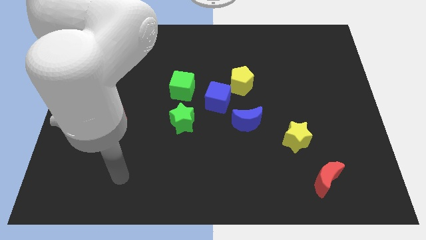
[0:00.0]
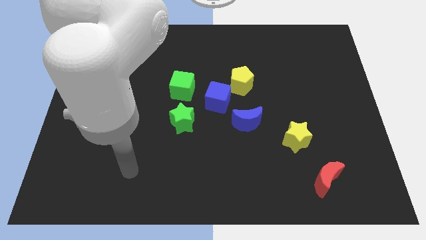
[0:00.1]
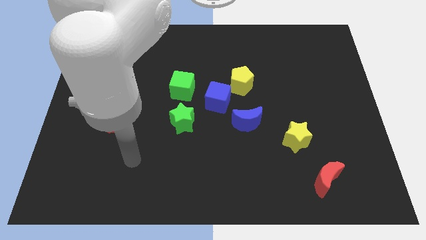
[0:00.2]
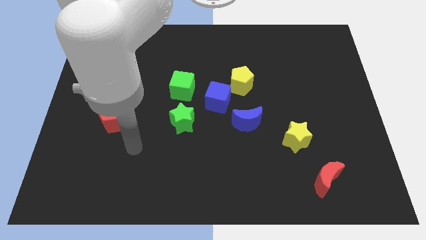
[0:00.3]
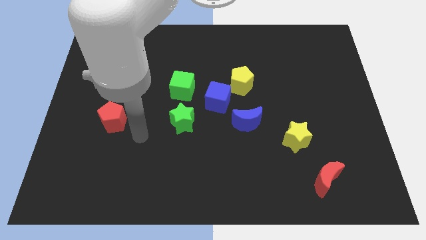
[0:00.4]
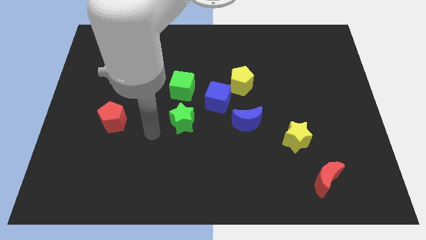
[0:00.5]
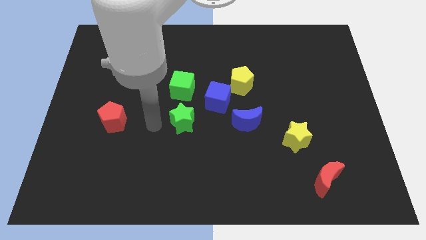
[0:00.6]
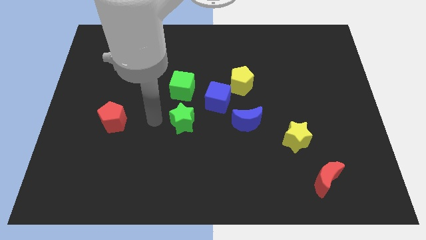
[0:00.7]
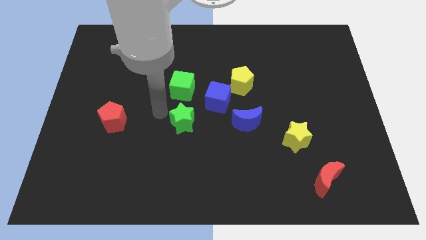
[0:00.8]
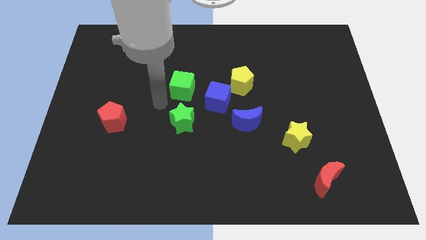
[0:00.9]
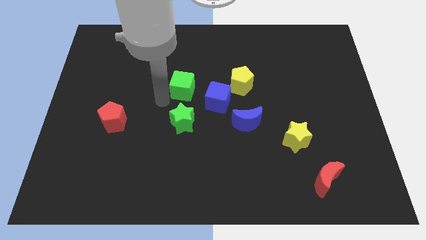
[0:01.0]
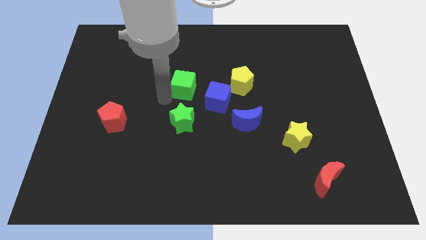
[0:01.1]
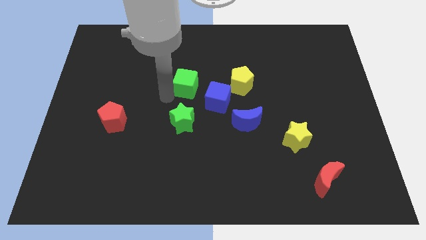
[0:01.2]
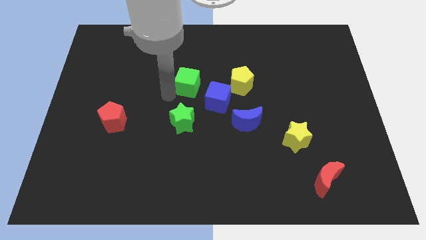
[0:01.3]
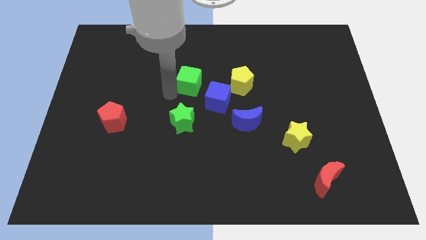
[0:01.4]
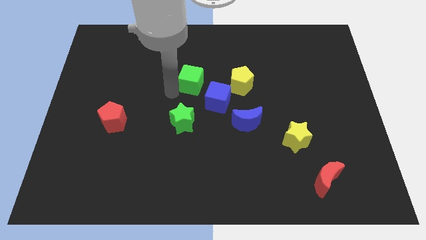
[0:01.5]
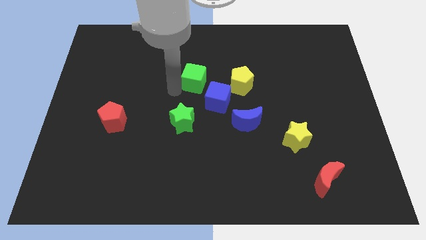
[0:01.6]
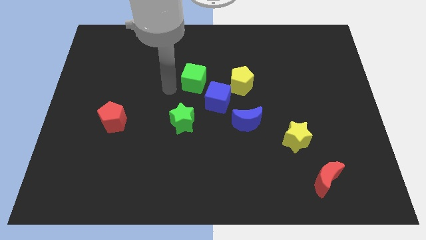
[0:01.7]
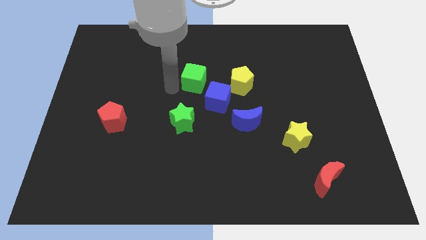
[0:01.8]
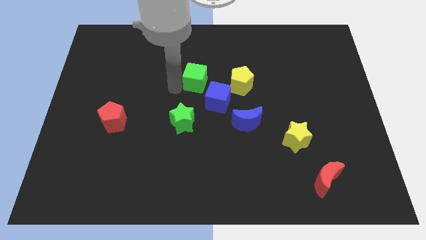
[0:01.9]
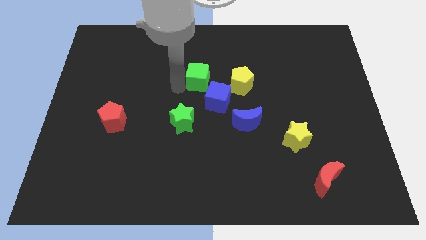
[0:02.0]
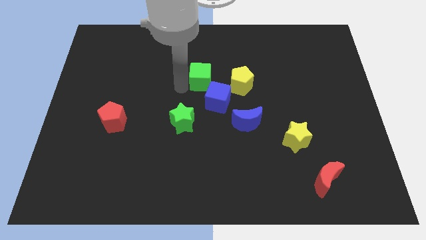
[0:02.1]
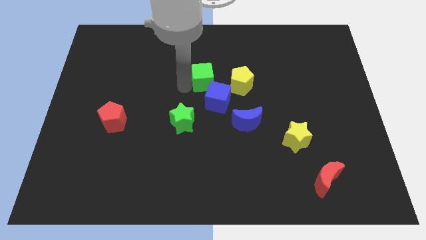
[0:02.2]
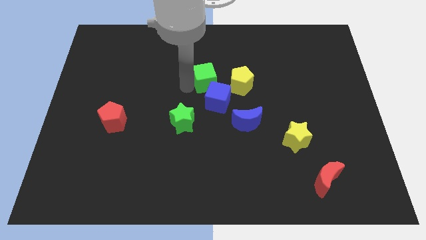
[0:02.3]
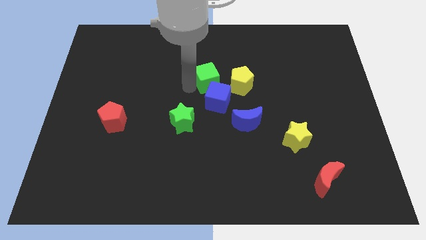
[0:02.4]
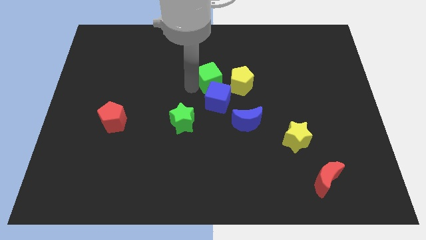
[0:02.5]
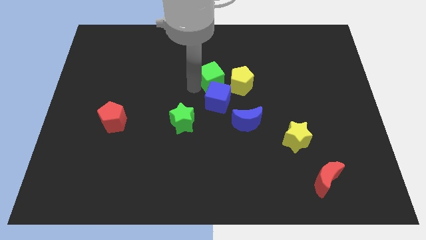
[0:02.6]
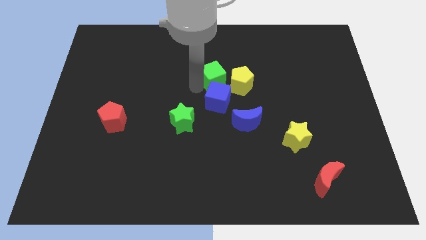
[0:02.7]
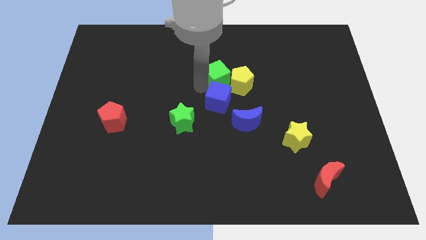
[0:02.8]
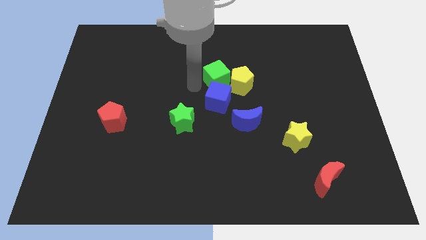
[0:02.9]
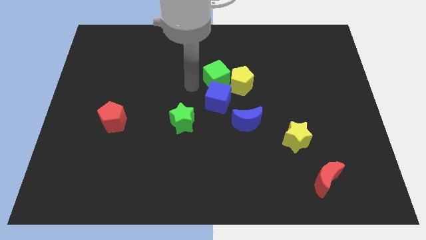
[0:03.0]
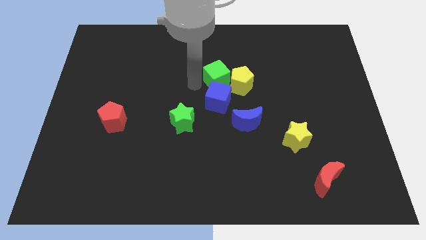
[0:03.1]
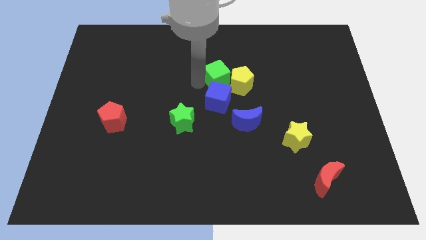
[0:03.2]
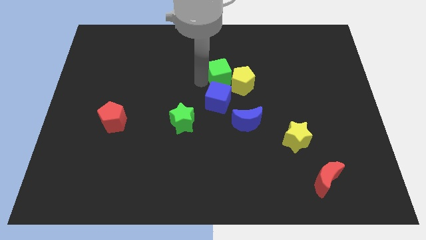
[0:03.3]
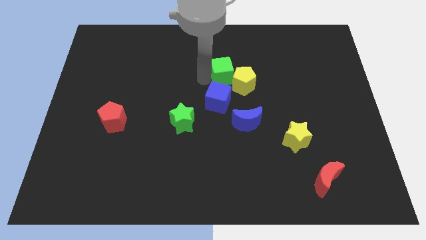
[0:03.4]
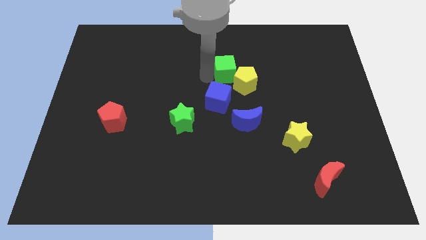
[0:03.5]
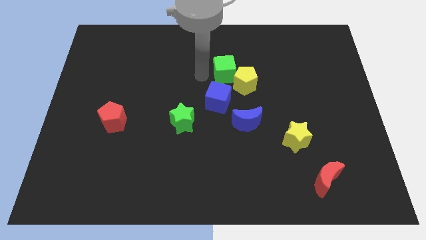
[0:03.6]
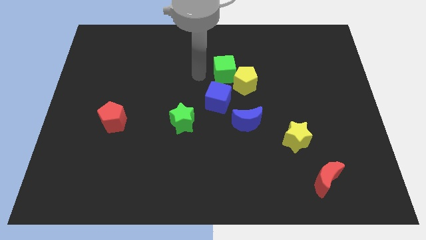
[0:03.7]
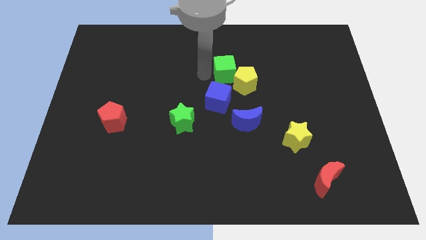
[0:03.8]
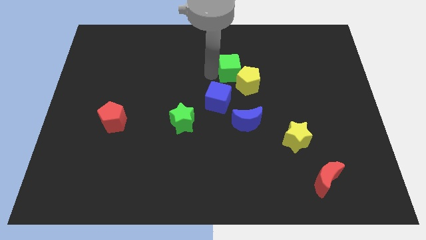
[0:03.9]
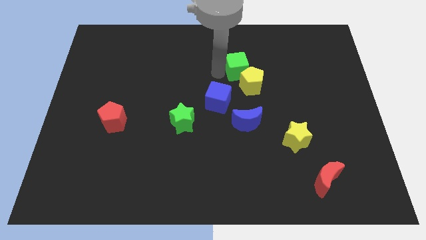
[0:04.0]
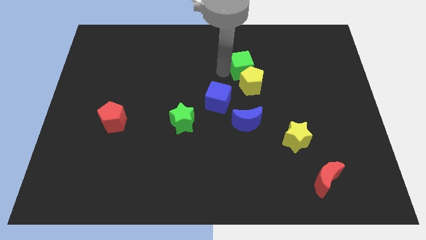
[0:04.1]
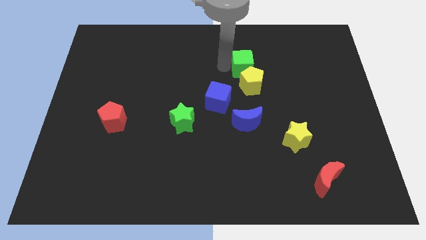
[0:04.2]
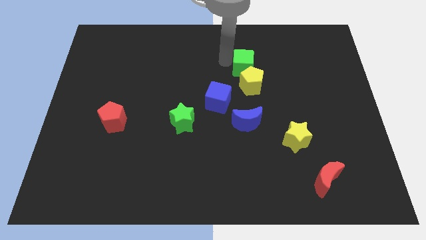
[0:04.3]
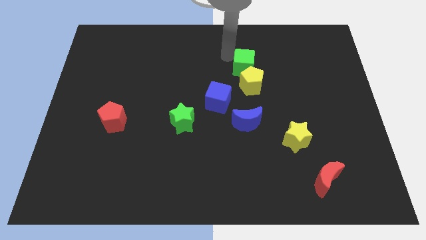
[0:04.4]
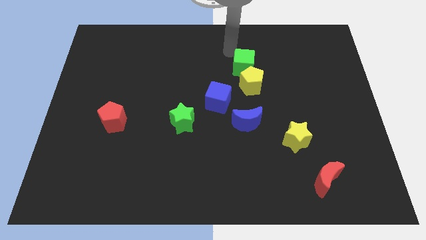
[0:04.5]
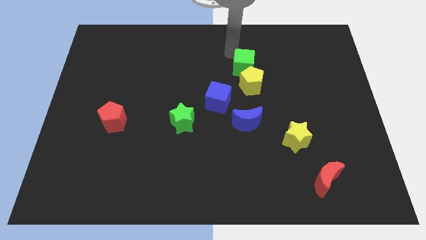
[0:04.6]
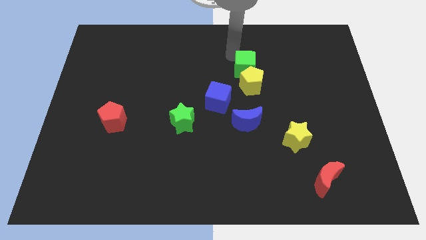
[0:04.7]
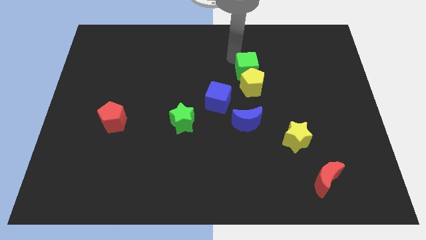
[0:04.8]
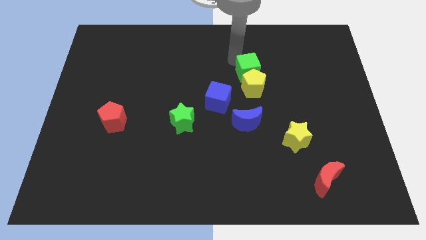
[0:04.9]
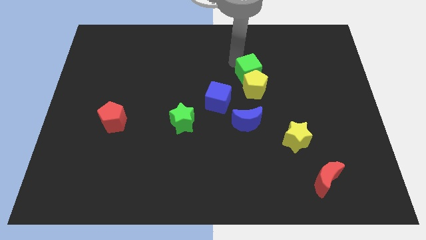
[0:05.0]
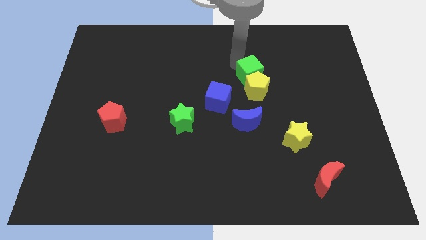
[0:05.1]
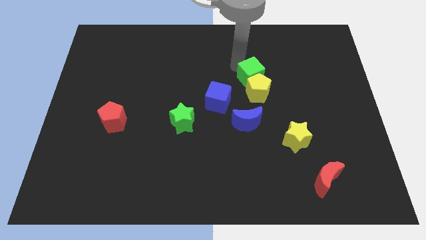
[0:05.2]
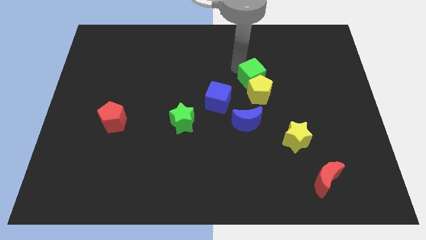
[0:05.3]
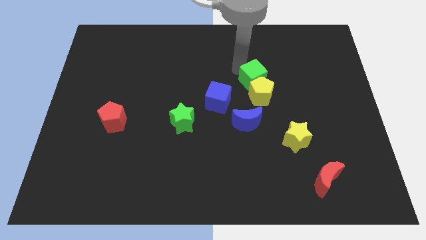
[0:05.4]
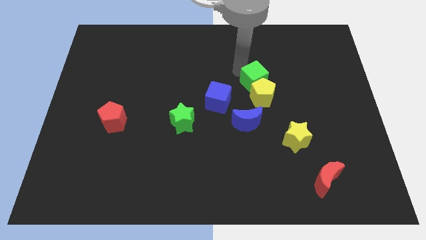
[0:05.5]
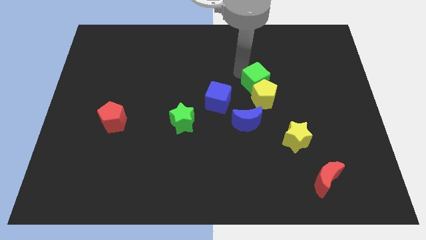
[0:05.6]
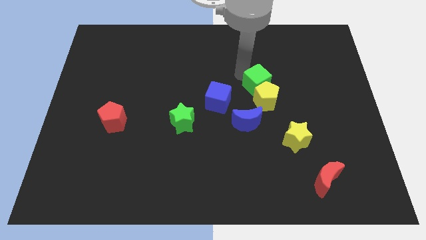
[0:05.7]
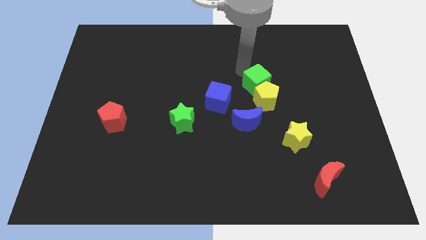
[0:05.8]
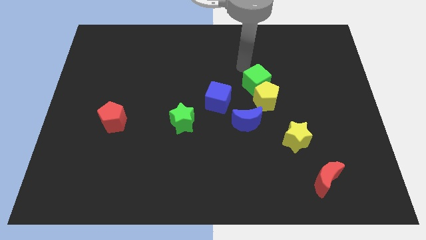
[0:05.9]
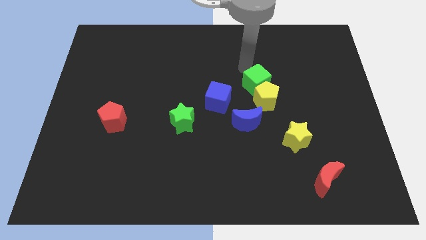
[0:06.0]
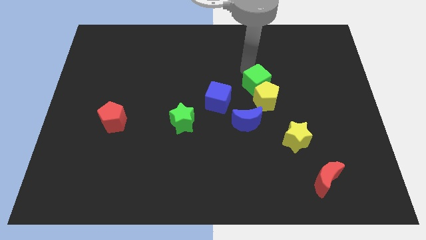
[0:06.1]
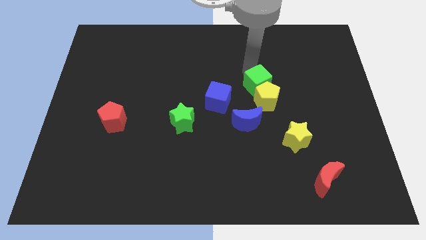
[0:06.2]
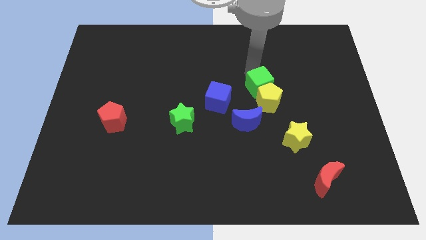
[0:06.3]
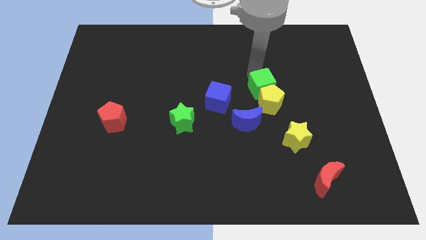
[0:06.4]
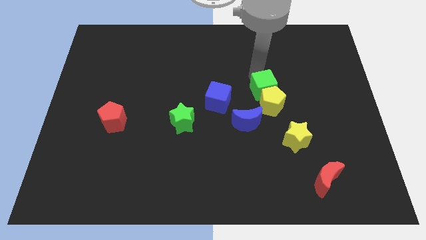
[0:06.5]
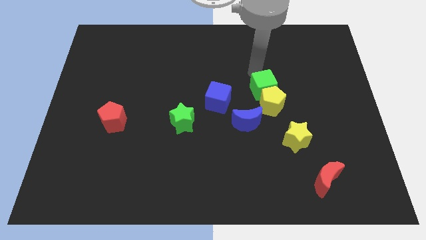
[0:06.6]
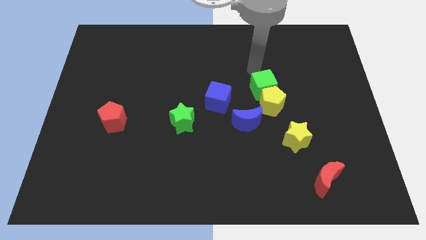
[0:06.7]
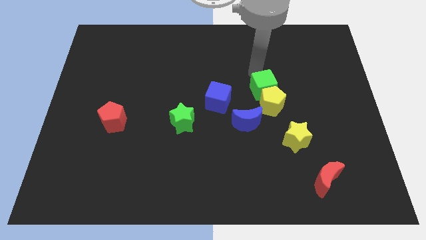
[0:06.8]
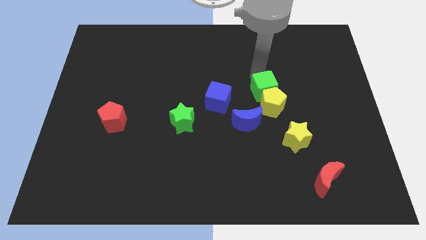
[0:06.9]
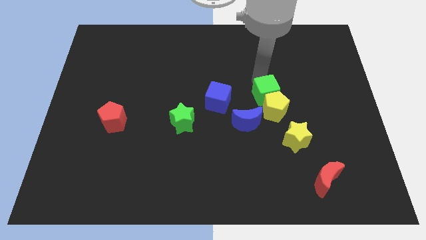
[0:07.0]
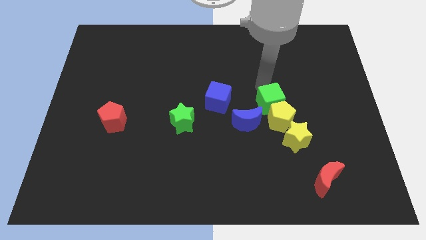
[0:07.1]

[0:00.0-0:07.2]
move the green cube diagonally up and to the left of the yellow star

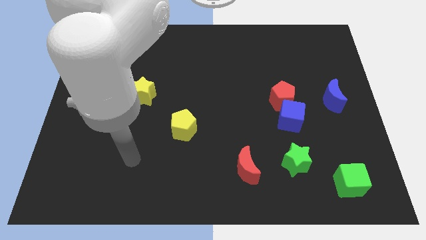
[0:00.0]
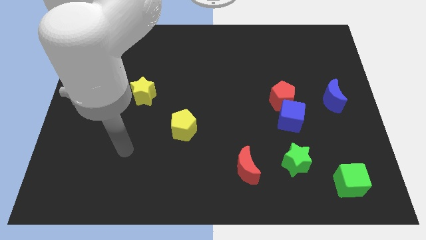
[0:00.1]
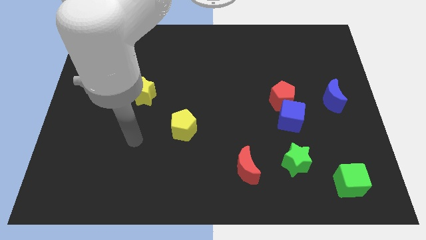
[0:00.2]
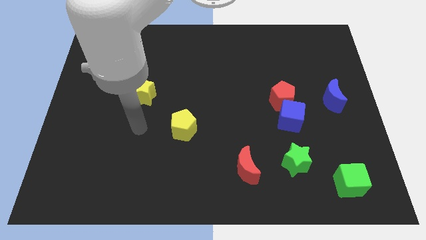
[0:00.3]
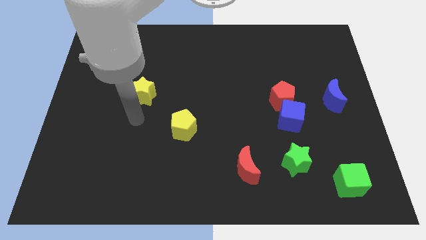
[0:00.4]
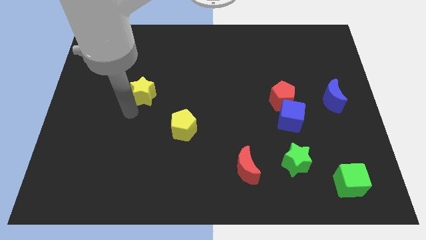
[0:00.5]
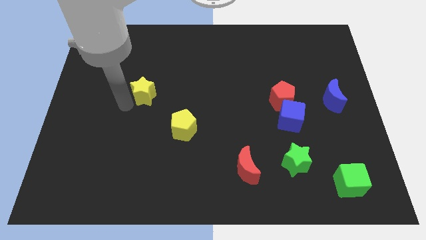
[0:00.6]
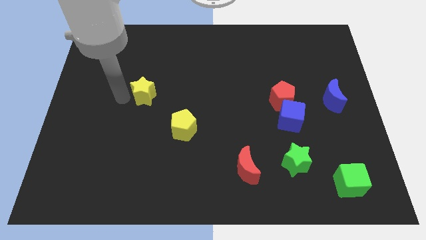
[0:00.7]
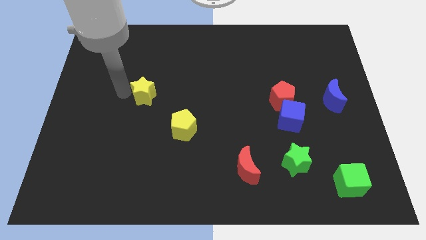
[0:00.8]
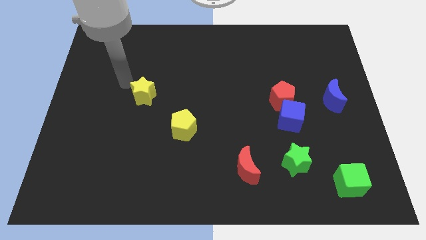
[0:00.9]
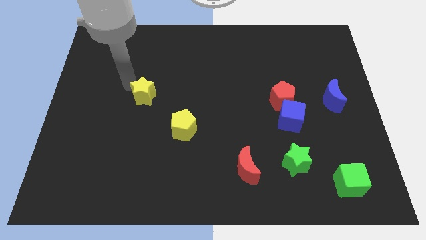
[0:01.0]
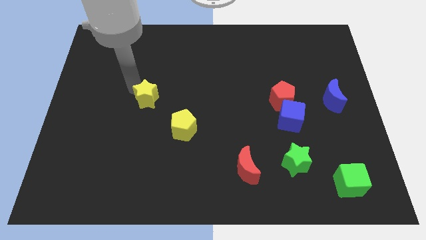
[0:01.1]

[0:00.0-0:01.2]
slide the yellow star to the top left of the yellow pentagon
